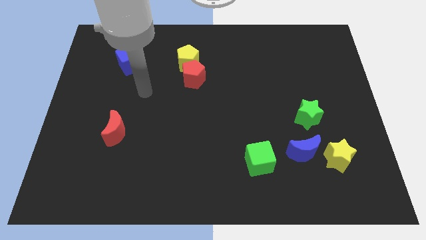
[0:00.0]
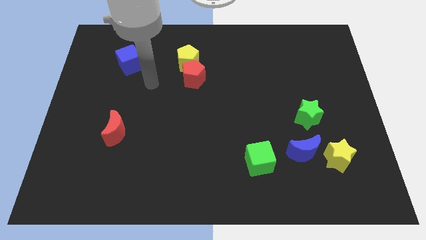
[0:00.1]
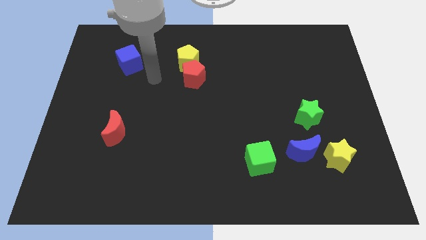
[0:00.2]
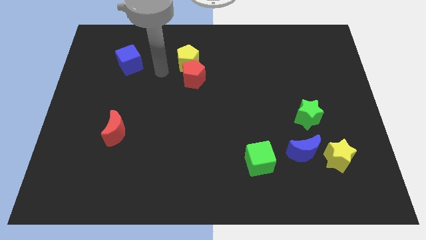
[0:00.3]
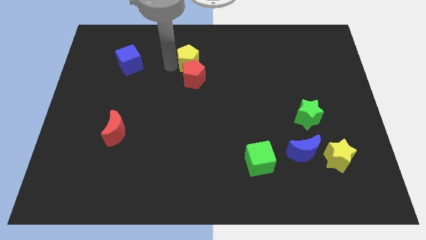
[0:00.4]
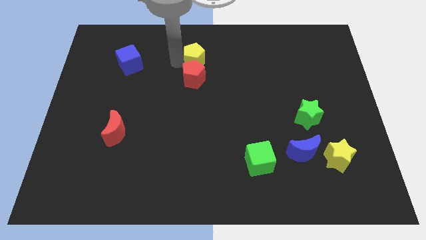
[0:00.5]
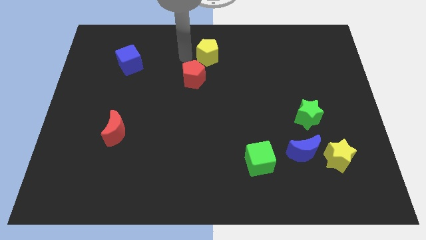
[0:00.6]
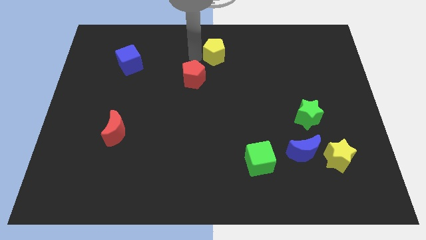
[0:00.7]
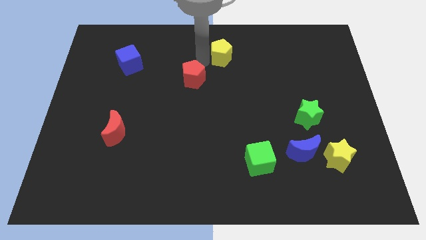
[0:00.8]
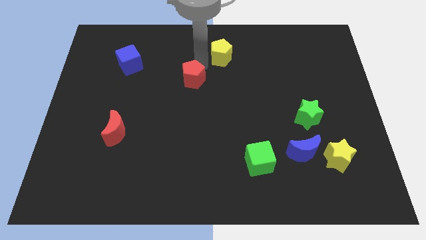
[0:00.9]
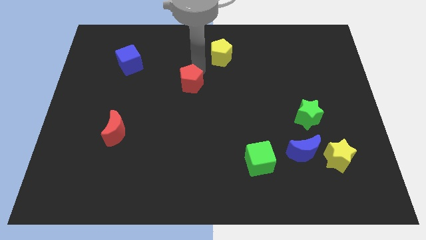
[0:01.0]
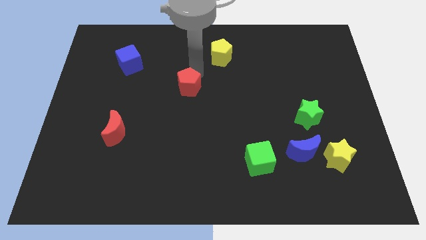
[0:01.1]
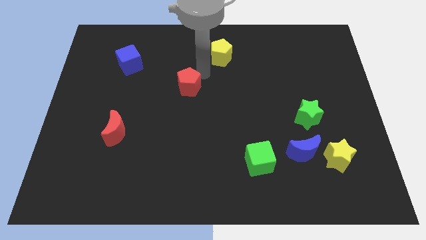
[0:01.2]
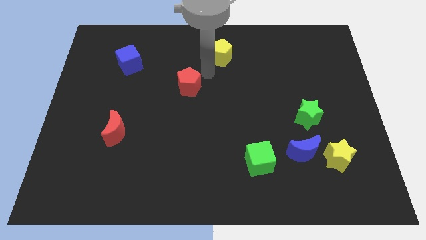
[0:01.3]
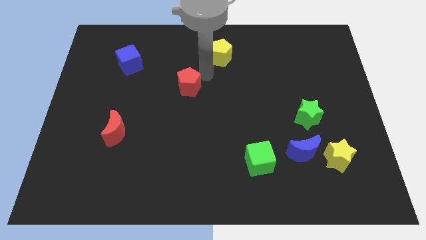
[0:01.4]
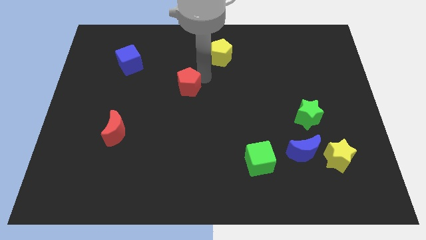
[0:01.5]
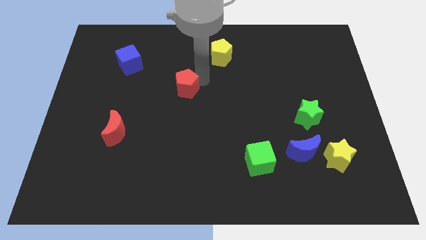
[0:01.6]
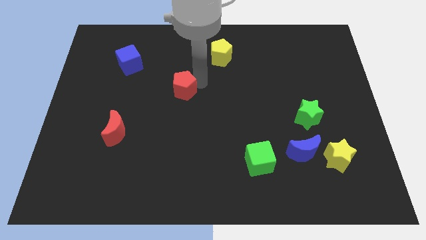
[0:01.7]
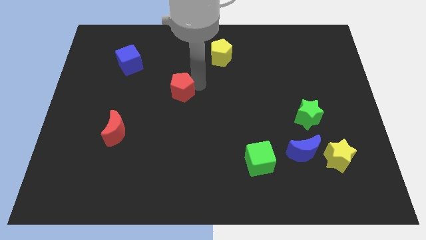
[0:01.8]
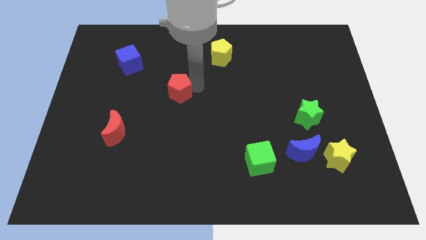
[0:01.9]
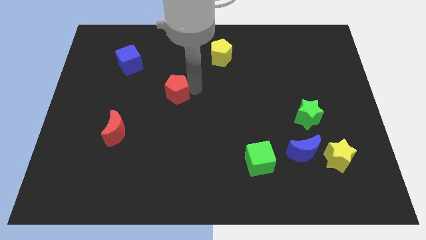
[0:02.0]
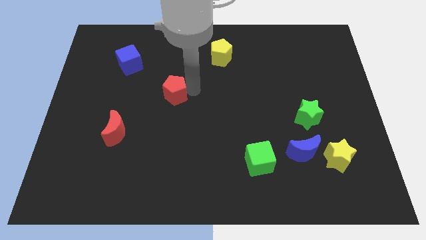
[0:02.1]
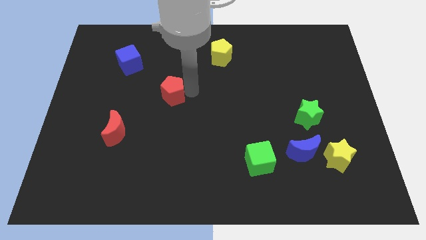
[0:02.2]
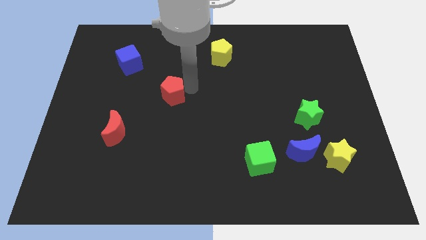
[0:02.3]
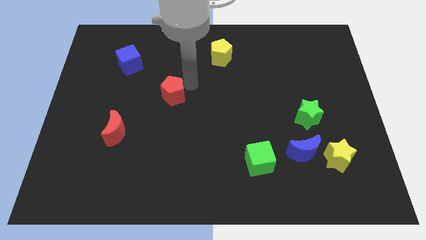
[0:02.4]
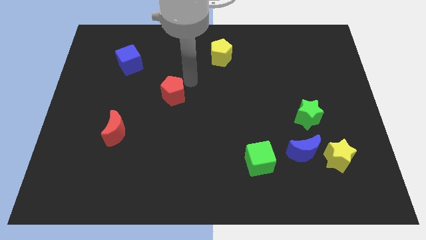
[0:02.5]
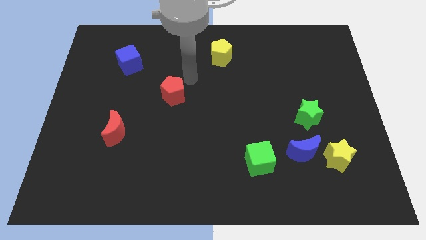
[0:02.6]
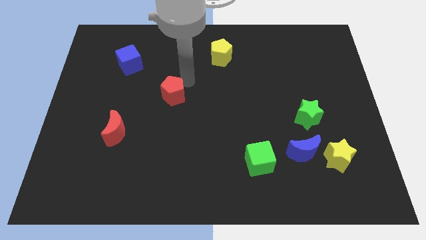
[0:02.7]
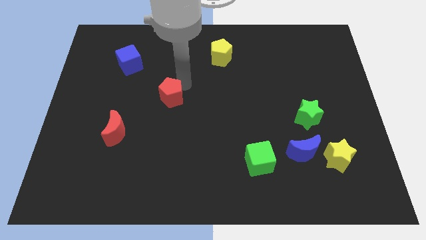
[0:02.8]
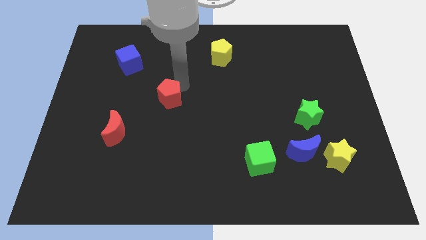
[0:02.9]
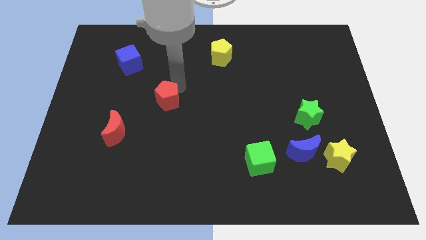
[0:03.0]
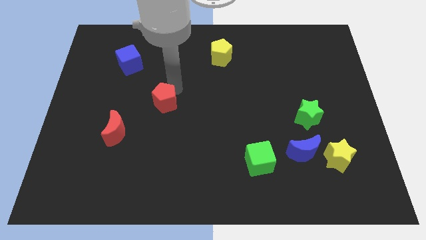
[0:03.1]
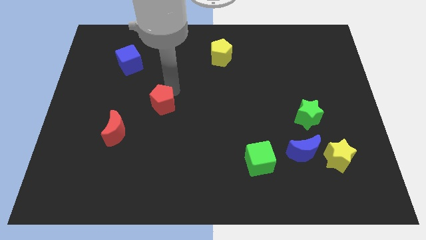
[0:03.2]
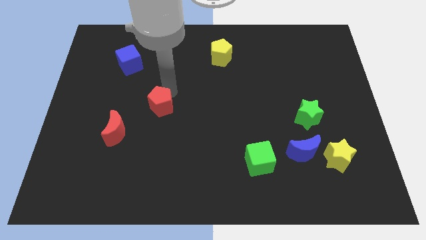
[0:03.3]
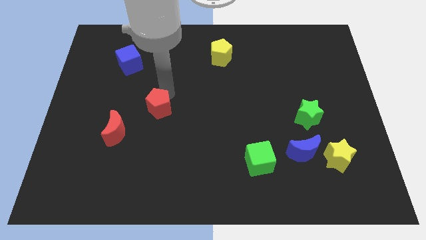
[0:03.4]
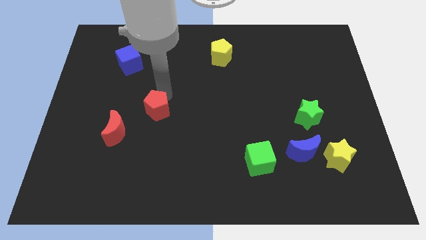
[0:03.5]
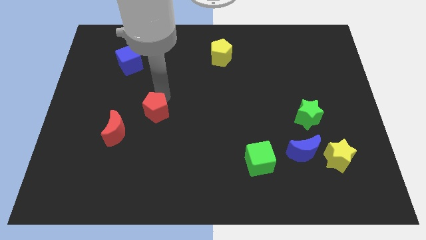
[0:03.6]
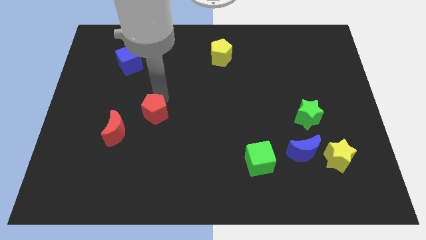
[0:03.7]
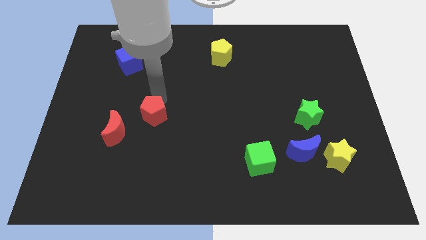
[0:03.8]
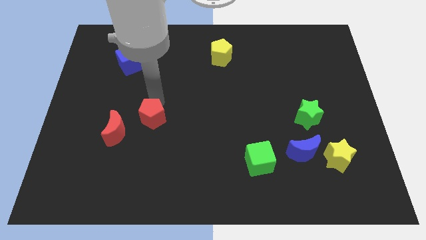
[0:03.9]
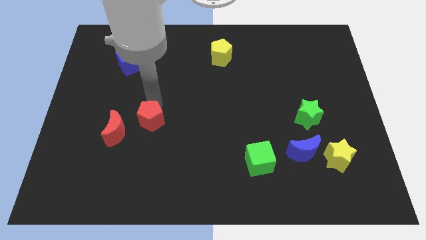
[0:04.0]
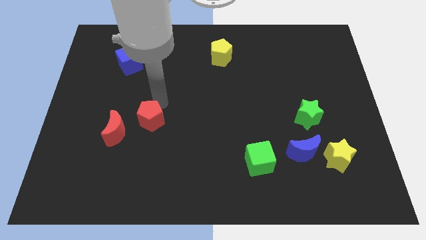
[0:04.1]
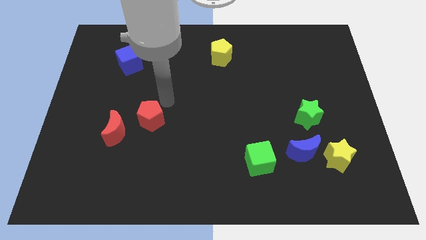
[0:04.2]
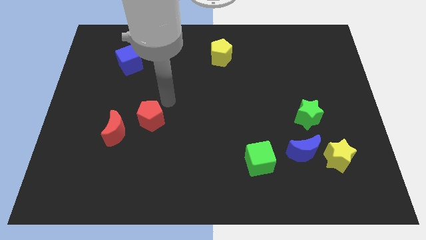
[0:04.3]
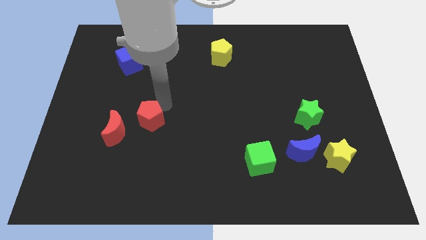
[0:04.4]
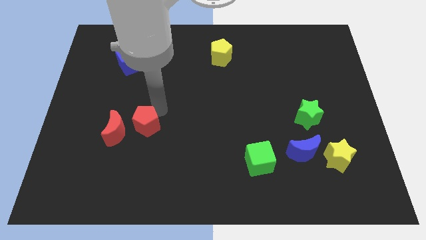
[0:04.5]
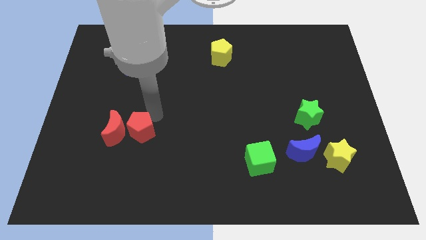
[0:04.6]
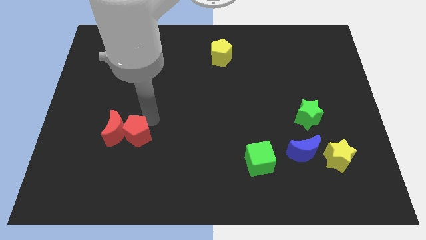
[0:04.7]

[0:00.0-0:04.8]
slide the red pentagon downwards and to the left diagonally

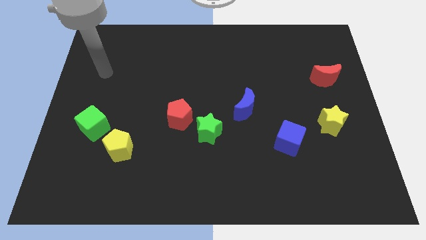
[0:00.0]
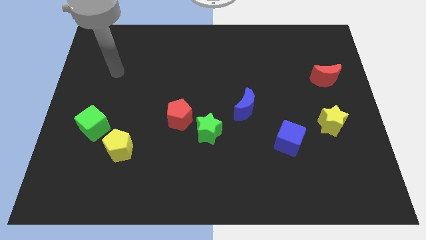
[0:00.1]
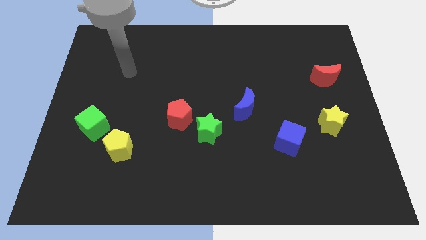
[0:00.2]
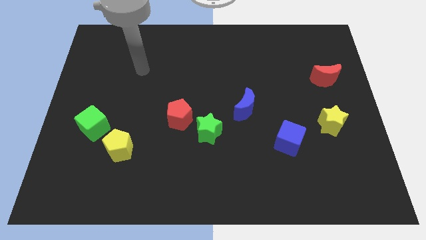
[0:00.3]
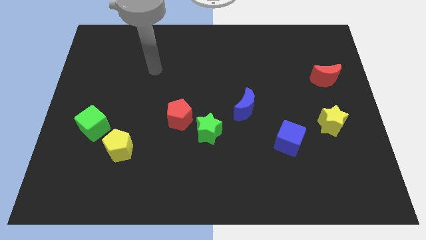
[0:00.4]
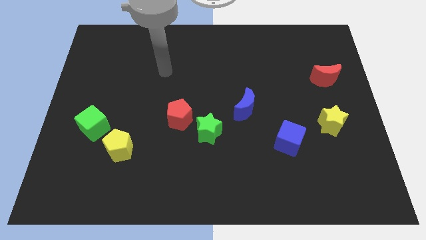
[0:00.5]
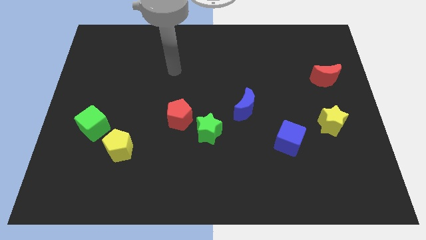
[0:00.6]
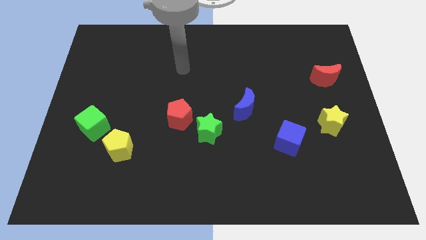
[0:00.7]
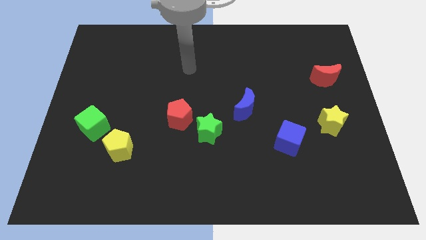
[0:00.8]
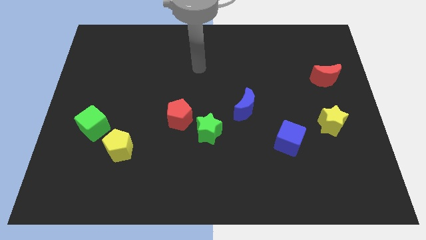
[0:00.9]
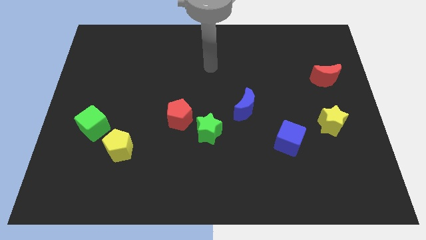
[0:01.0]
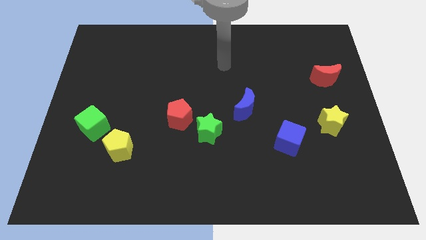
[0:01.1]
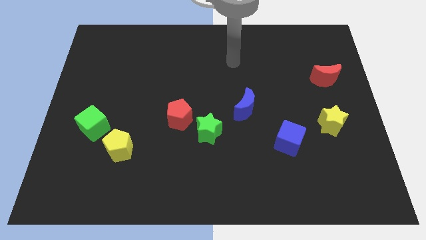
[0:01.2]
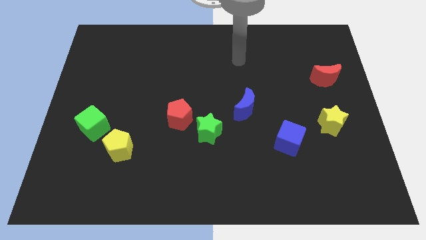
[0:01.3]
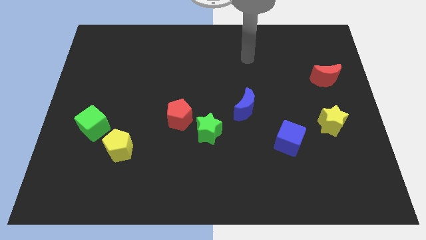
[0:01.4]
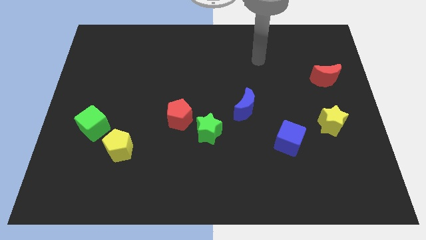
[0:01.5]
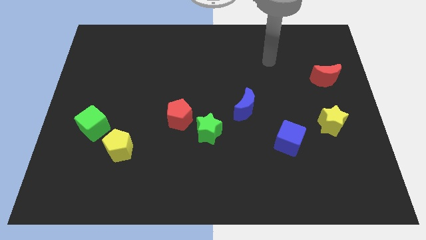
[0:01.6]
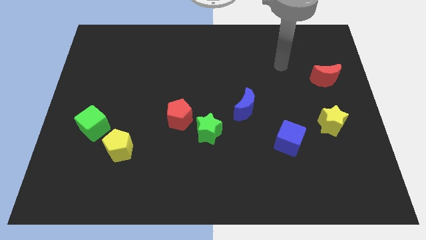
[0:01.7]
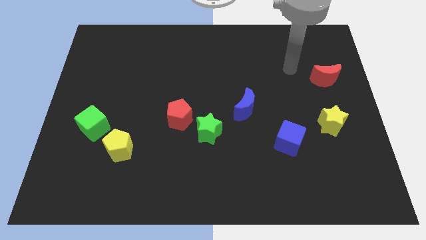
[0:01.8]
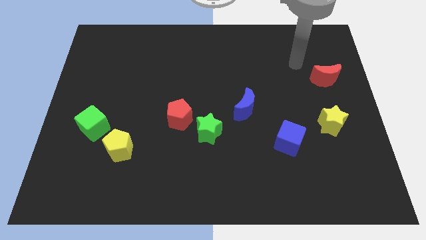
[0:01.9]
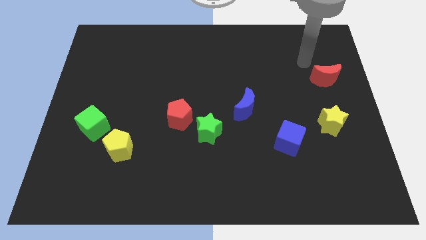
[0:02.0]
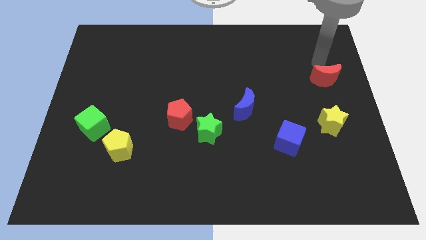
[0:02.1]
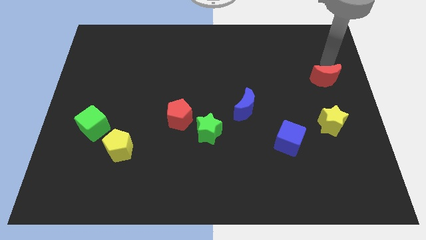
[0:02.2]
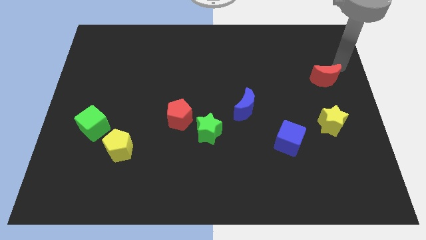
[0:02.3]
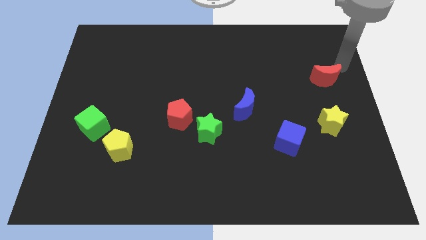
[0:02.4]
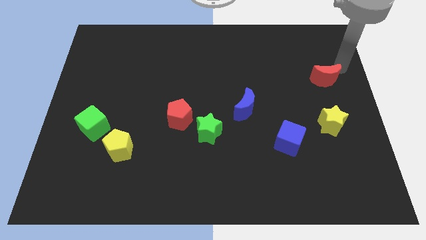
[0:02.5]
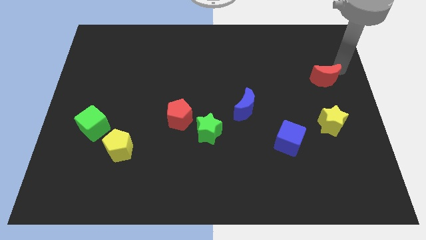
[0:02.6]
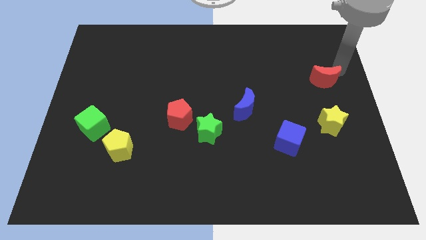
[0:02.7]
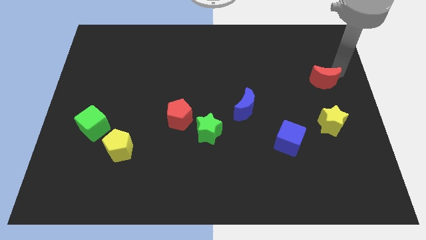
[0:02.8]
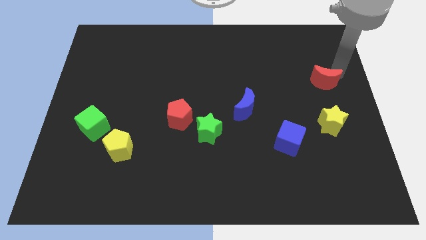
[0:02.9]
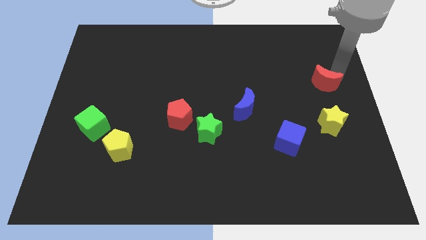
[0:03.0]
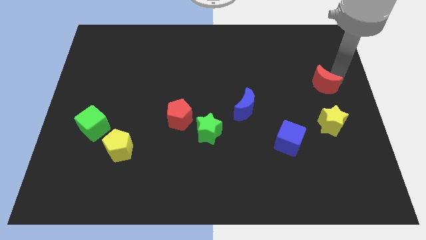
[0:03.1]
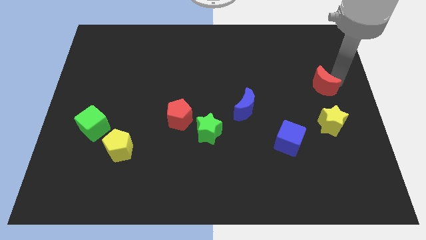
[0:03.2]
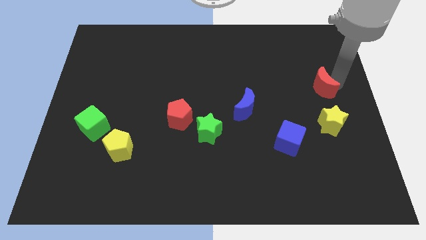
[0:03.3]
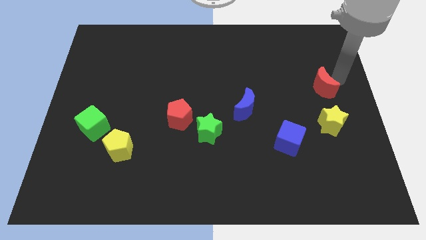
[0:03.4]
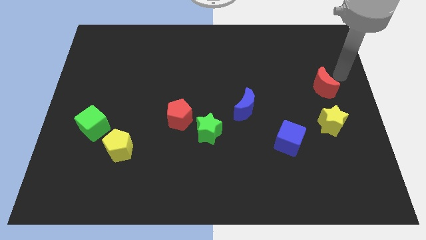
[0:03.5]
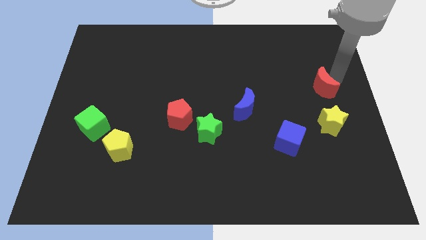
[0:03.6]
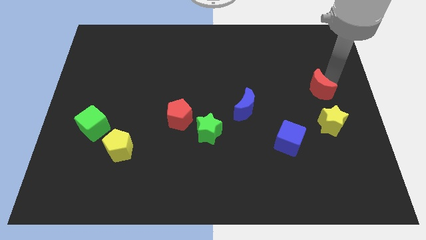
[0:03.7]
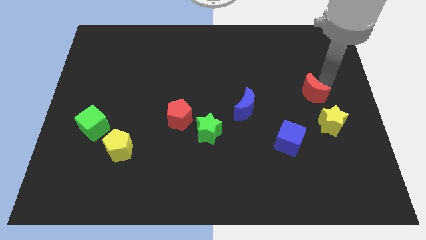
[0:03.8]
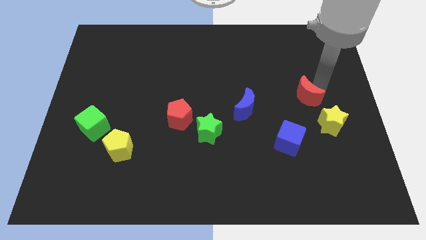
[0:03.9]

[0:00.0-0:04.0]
slide the red moon diagonally downwards and to the left a little
